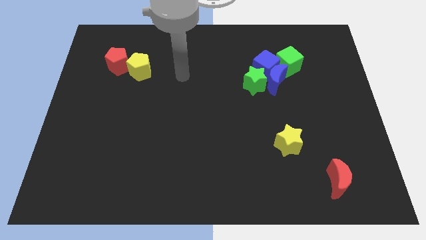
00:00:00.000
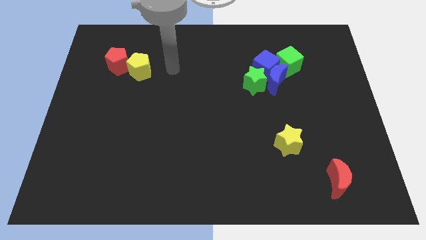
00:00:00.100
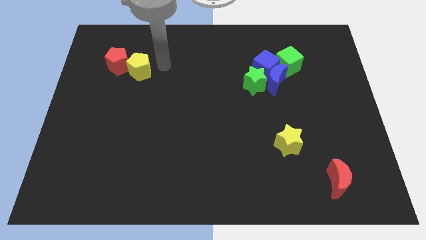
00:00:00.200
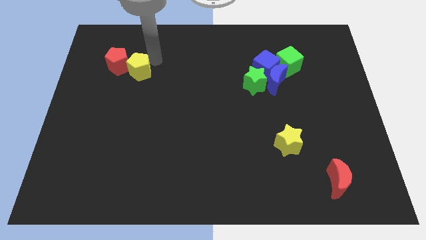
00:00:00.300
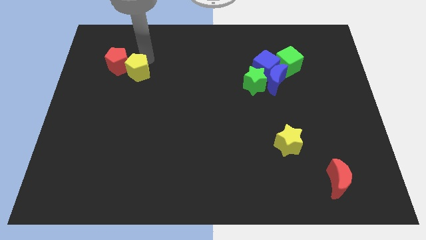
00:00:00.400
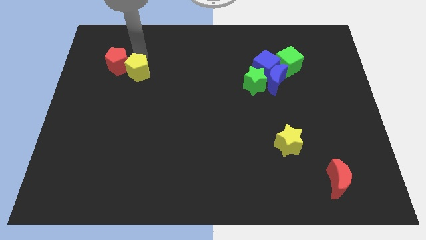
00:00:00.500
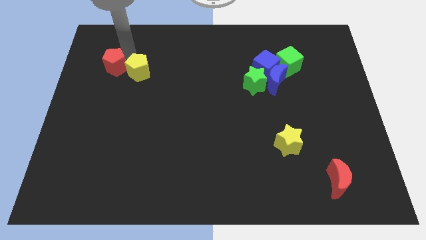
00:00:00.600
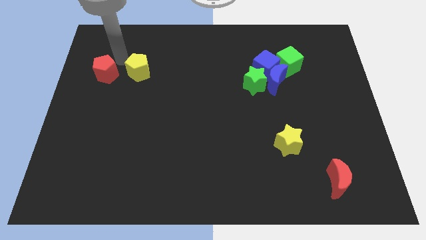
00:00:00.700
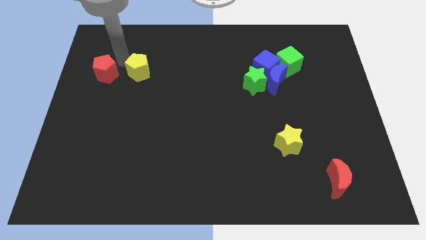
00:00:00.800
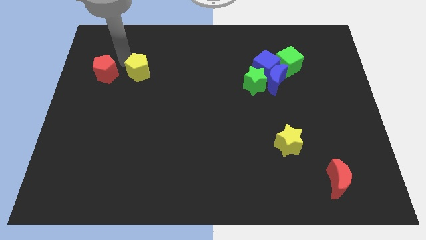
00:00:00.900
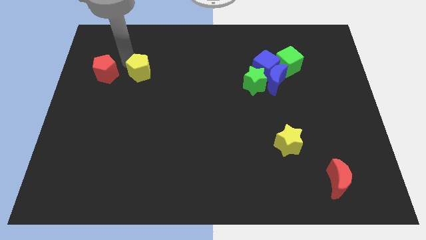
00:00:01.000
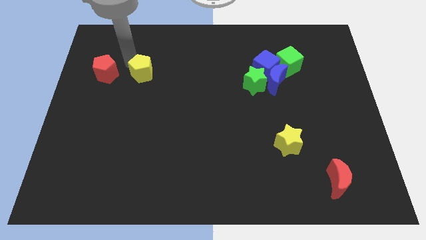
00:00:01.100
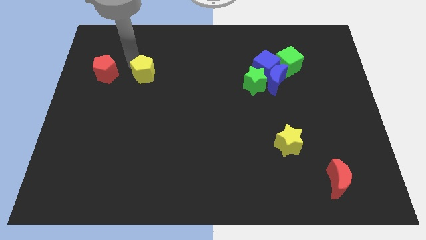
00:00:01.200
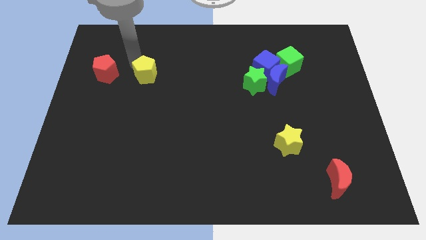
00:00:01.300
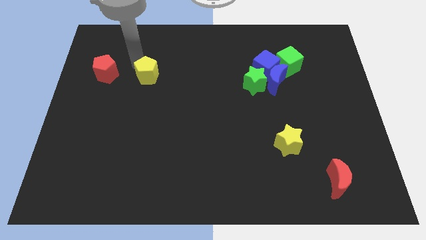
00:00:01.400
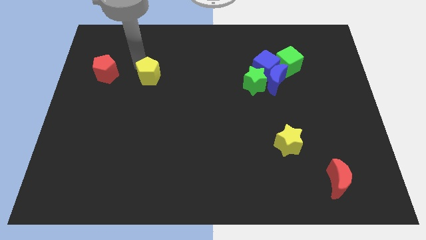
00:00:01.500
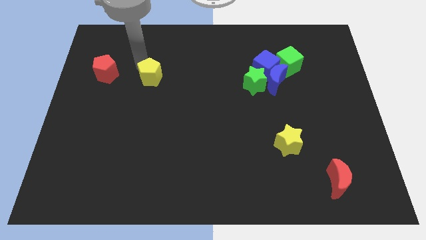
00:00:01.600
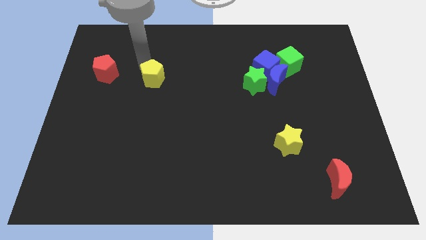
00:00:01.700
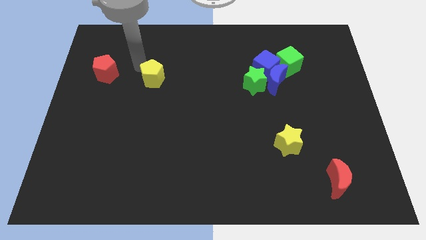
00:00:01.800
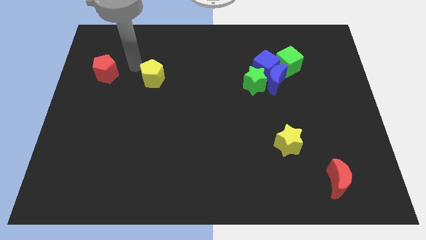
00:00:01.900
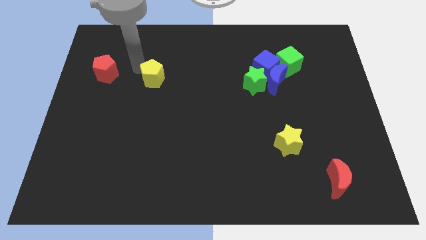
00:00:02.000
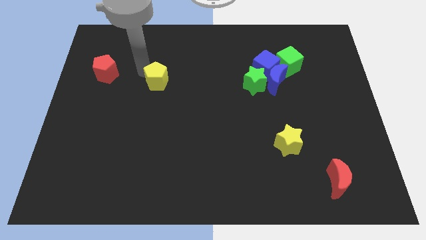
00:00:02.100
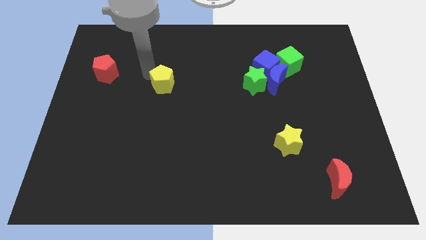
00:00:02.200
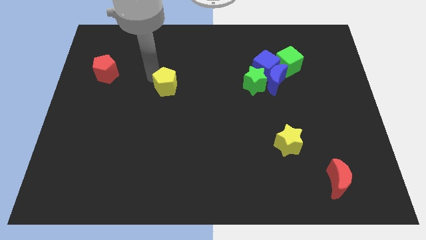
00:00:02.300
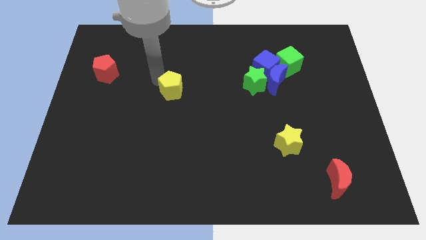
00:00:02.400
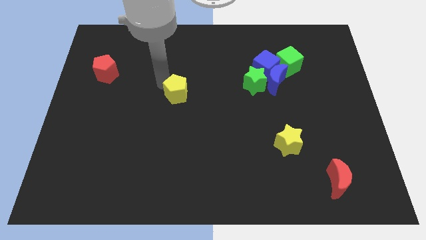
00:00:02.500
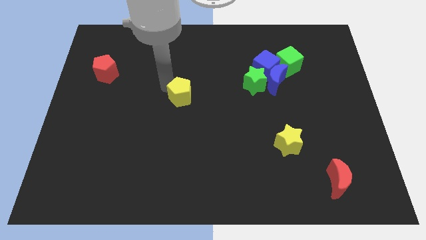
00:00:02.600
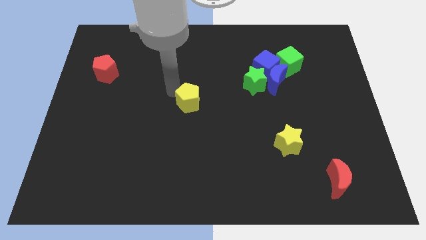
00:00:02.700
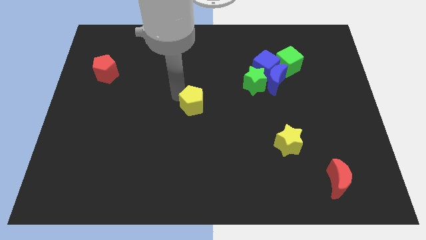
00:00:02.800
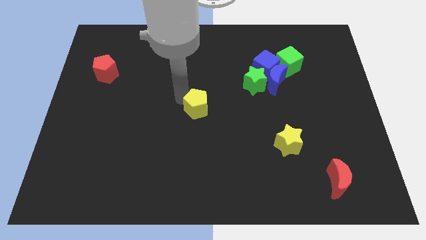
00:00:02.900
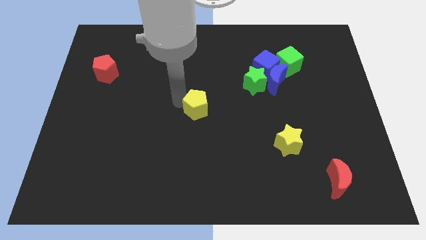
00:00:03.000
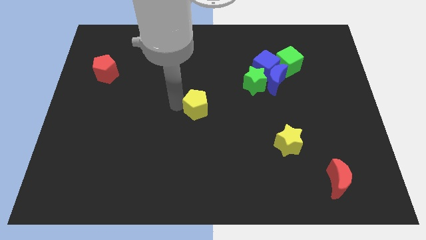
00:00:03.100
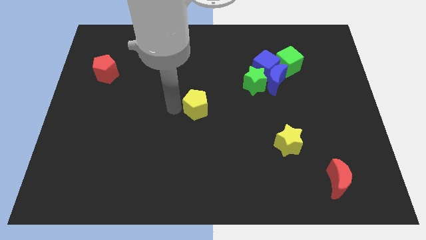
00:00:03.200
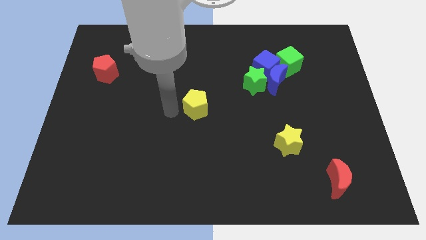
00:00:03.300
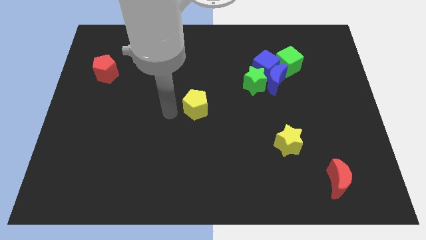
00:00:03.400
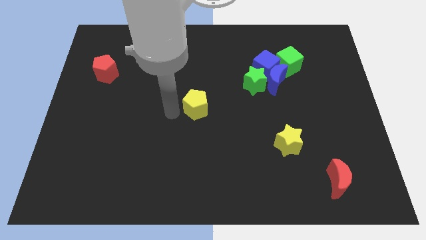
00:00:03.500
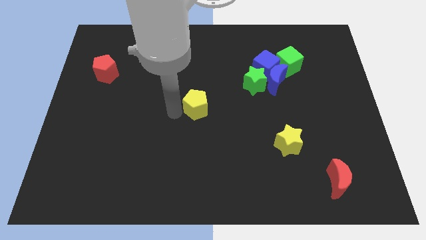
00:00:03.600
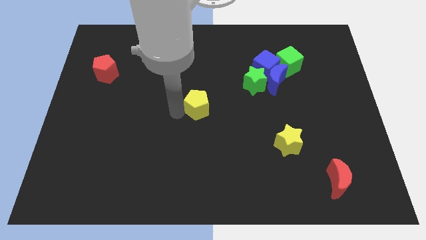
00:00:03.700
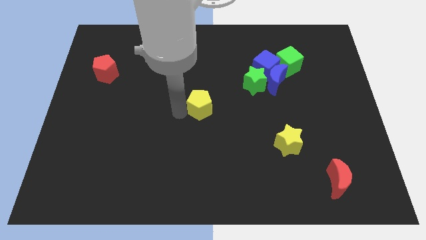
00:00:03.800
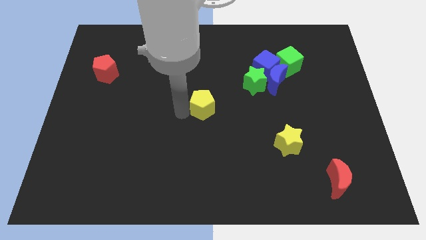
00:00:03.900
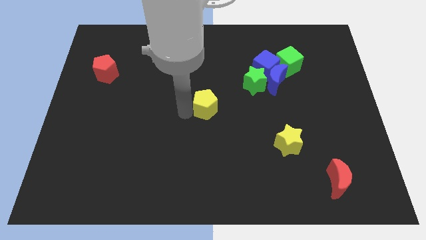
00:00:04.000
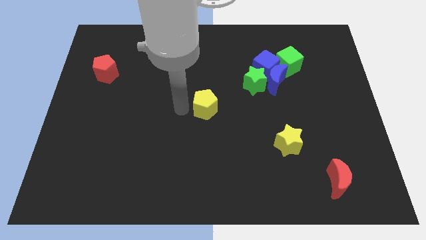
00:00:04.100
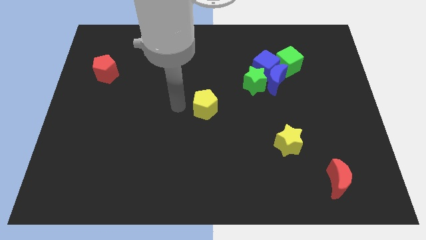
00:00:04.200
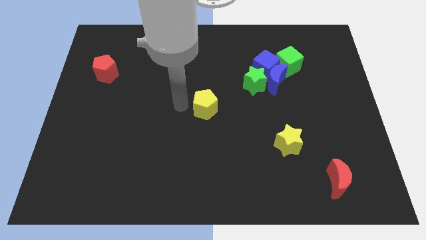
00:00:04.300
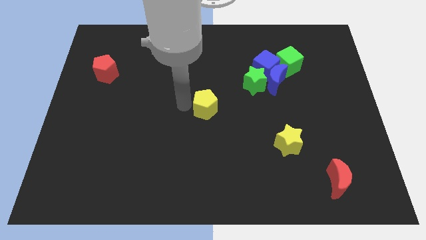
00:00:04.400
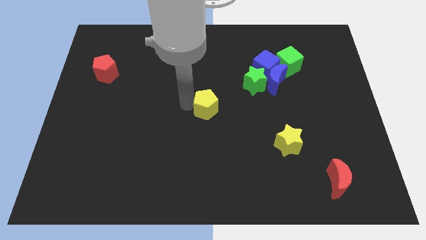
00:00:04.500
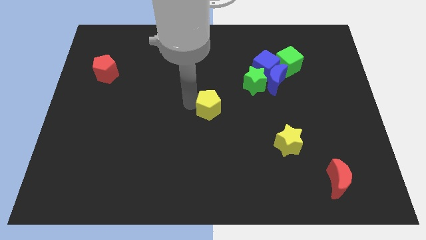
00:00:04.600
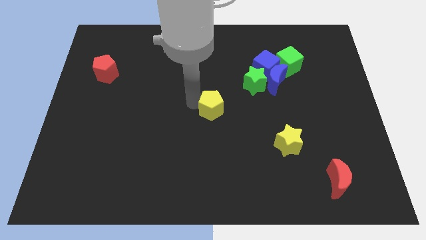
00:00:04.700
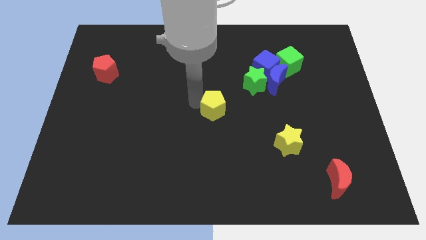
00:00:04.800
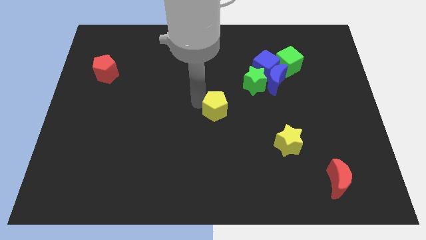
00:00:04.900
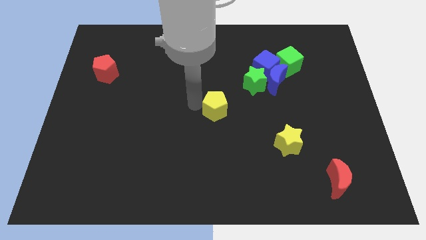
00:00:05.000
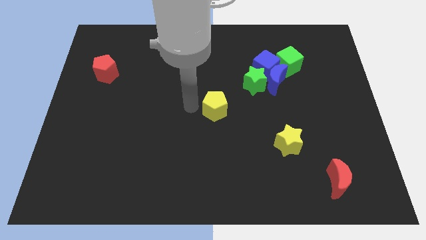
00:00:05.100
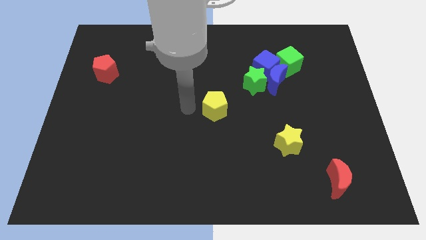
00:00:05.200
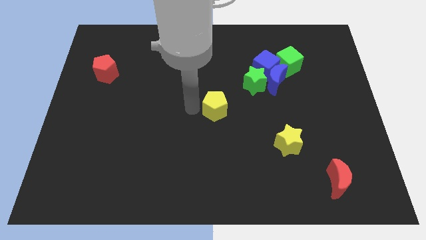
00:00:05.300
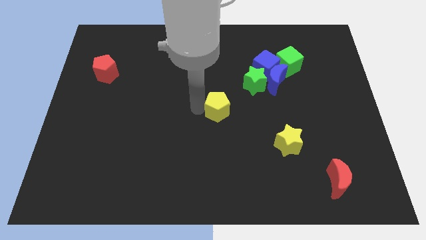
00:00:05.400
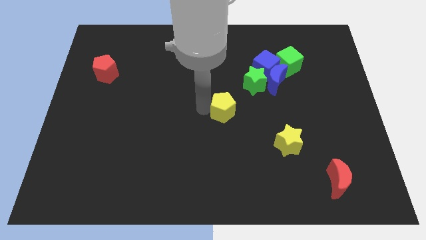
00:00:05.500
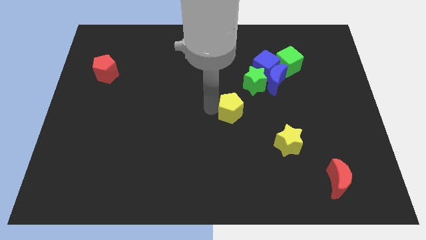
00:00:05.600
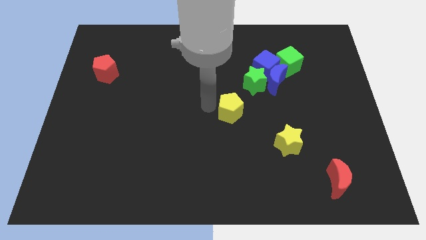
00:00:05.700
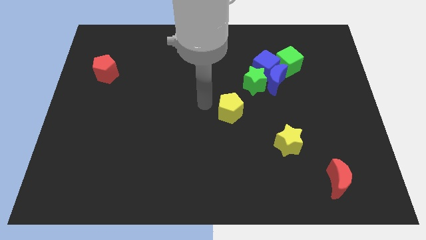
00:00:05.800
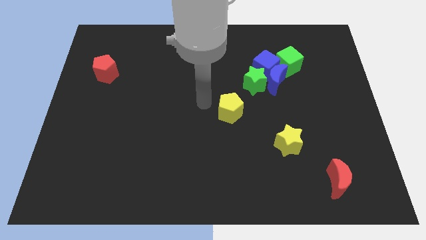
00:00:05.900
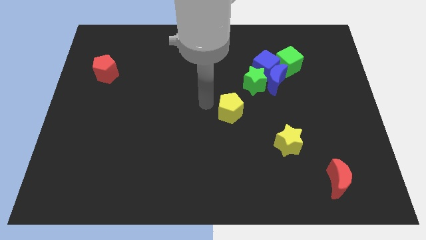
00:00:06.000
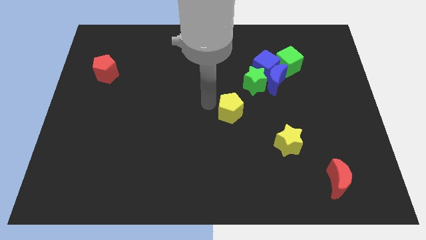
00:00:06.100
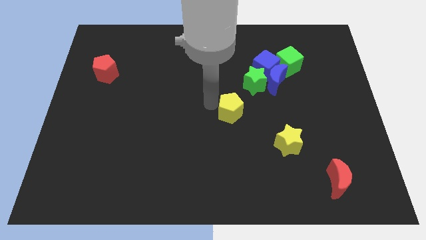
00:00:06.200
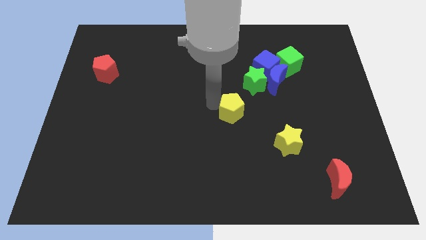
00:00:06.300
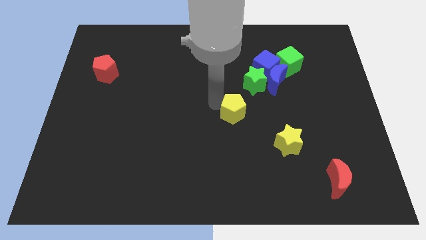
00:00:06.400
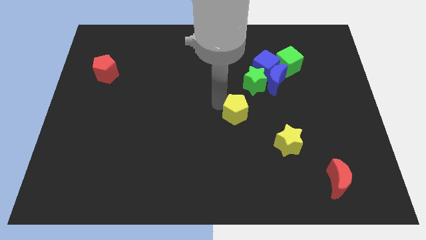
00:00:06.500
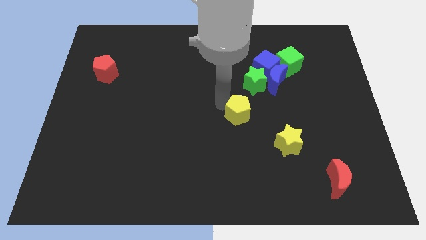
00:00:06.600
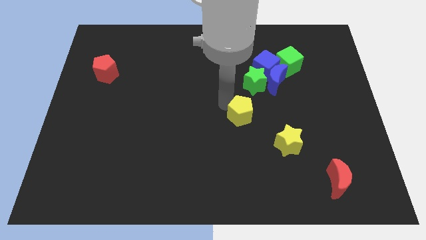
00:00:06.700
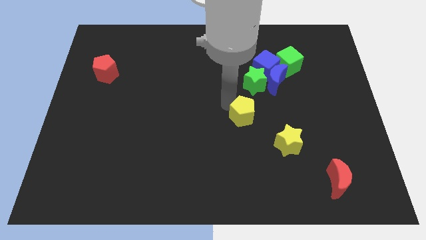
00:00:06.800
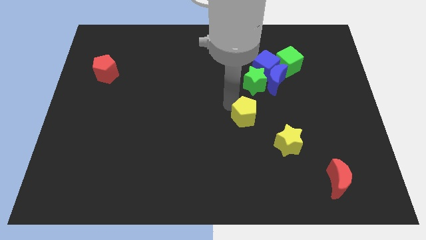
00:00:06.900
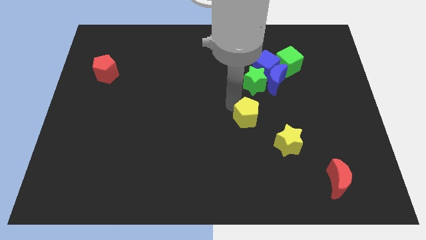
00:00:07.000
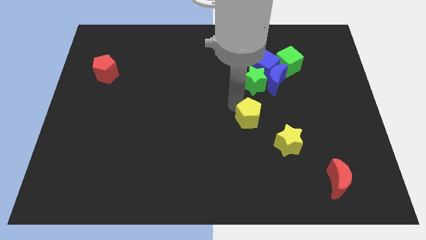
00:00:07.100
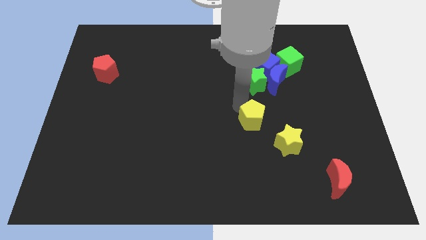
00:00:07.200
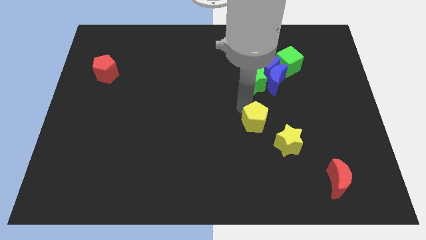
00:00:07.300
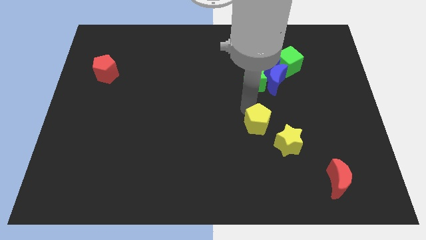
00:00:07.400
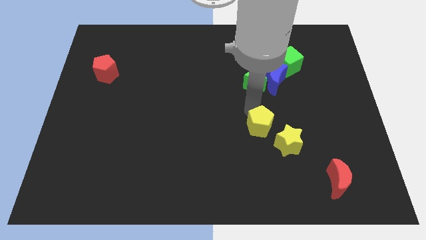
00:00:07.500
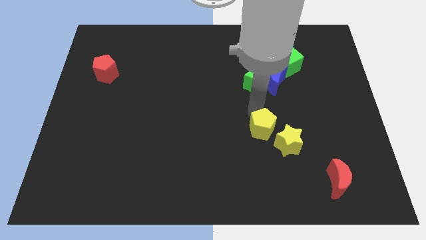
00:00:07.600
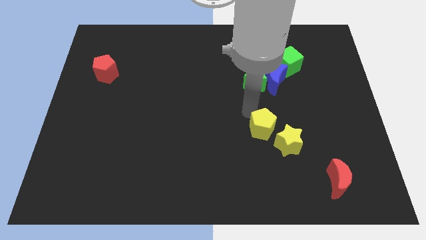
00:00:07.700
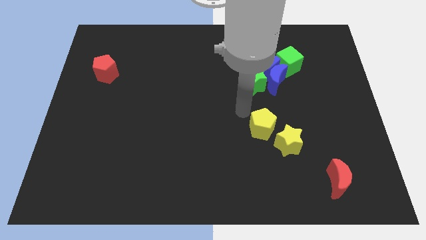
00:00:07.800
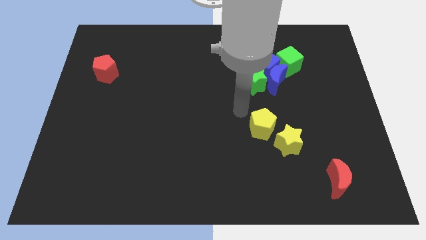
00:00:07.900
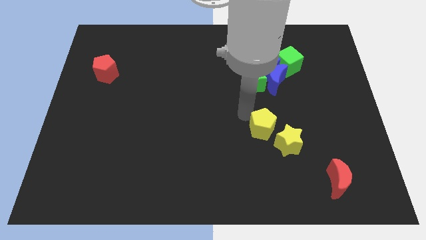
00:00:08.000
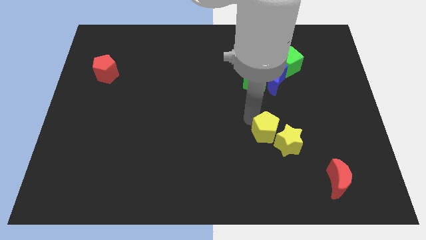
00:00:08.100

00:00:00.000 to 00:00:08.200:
push the yellow pentagon next to the yellow star
